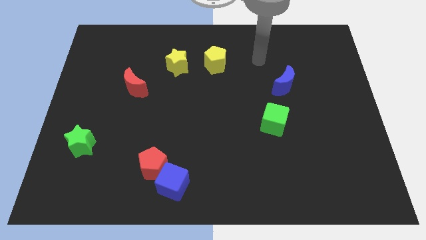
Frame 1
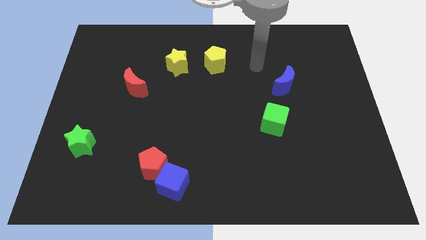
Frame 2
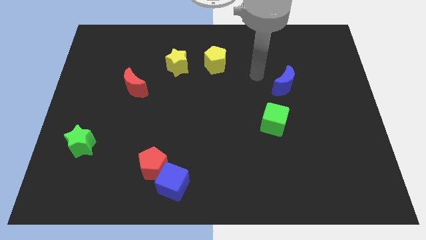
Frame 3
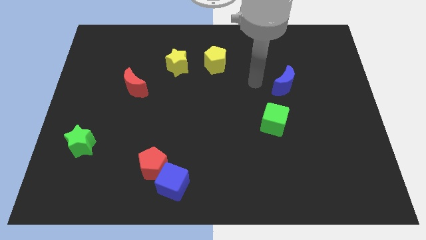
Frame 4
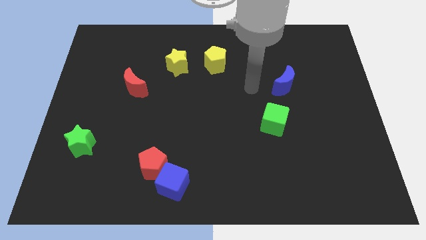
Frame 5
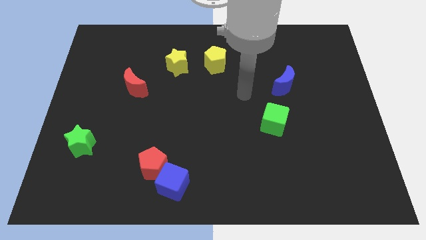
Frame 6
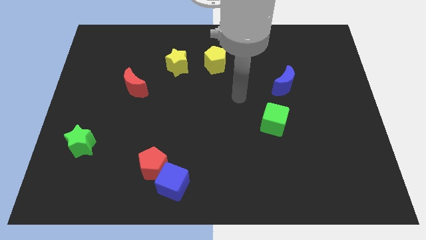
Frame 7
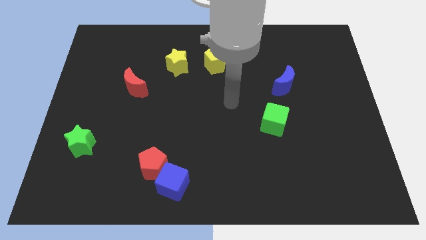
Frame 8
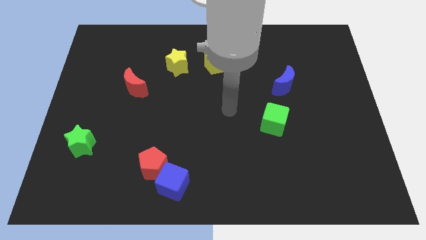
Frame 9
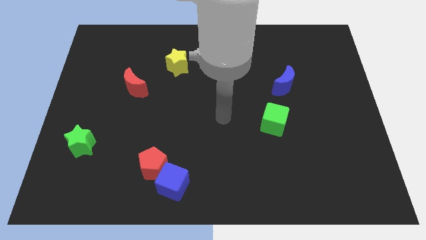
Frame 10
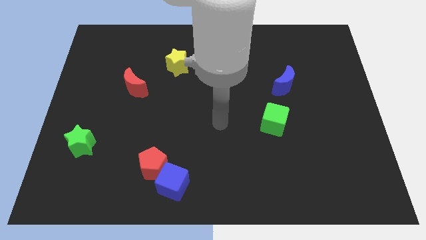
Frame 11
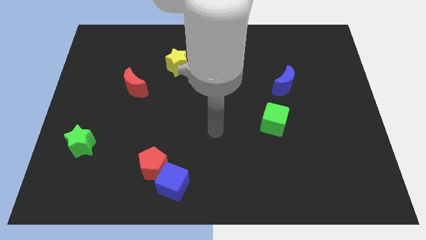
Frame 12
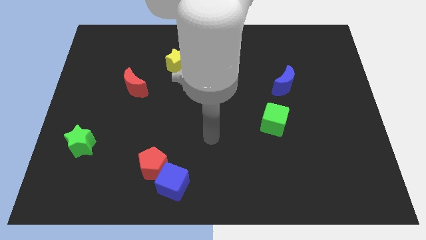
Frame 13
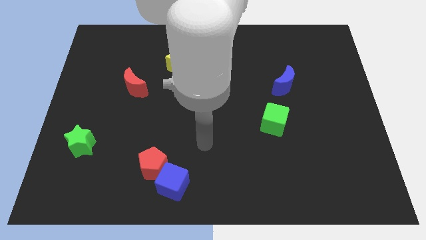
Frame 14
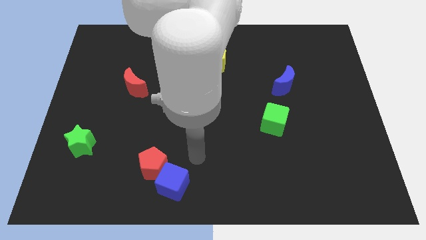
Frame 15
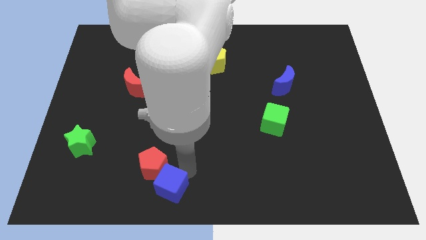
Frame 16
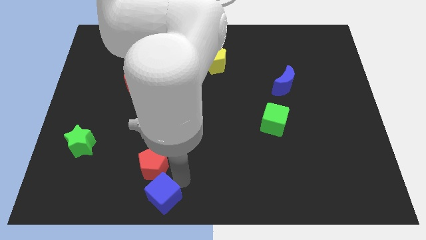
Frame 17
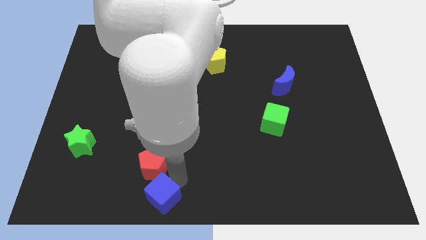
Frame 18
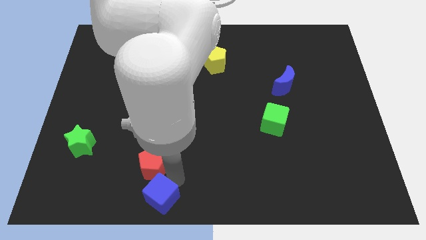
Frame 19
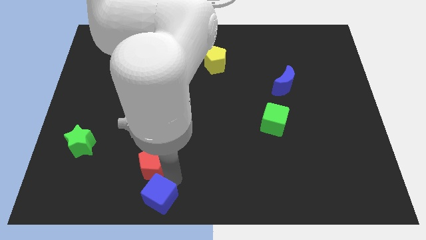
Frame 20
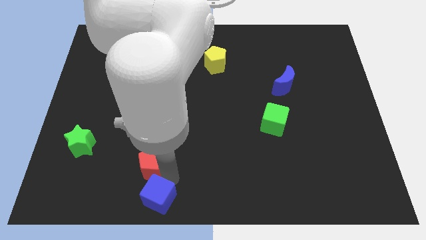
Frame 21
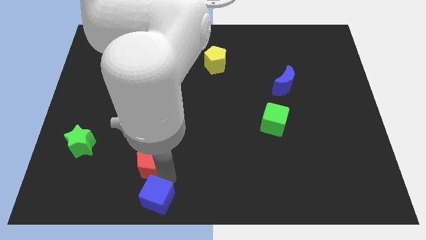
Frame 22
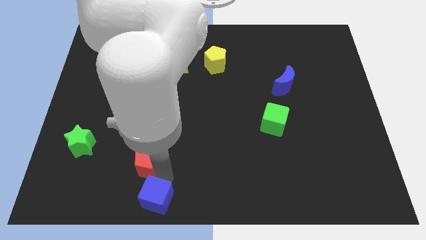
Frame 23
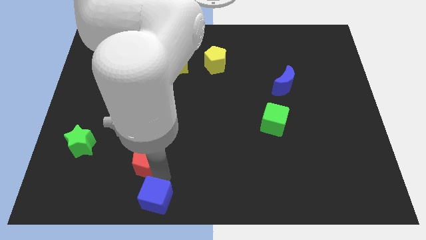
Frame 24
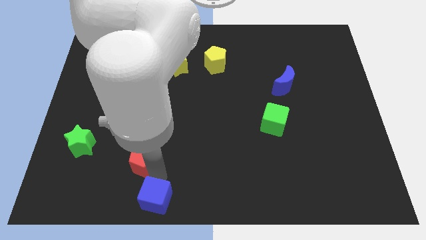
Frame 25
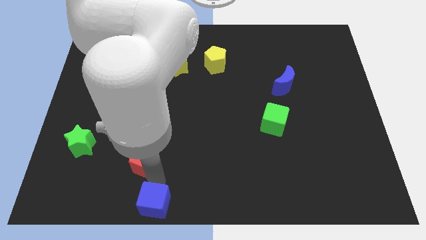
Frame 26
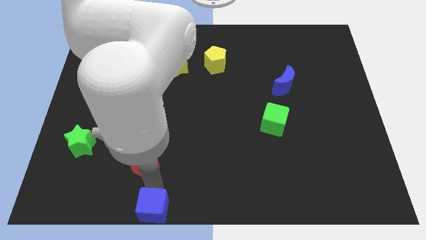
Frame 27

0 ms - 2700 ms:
separate the red pentagon from the blue cube

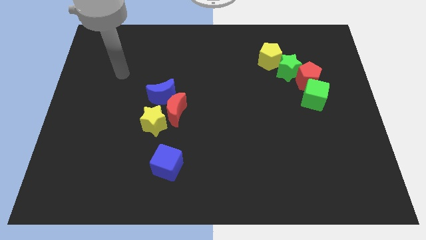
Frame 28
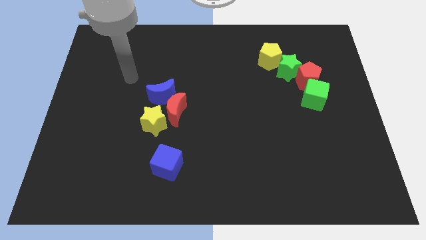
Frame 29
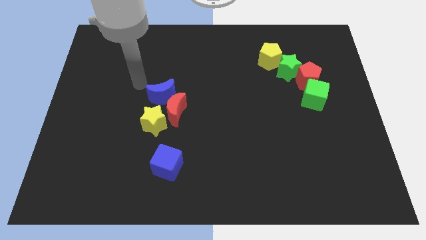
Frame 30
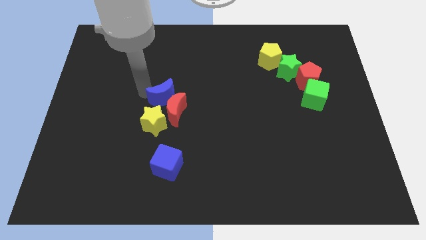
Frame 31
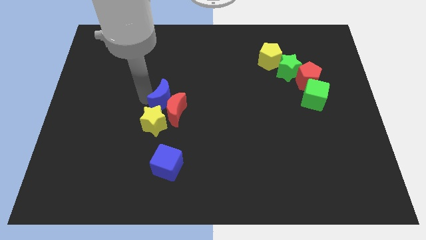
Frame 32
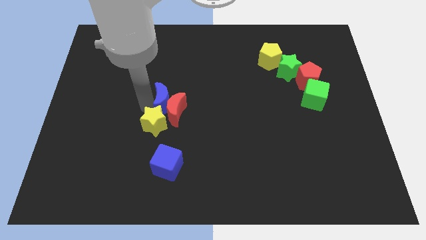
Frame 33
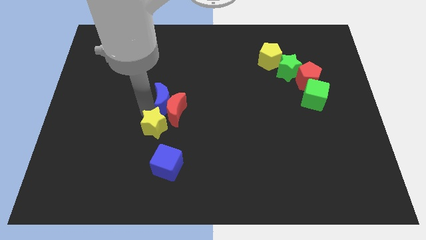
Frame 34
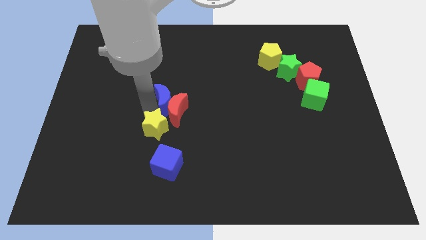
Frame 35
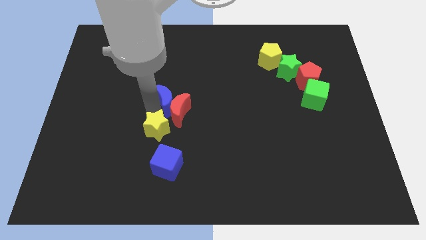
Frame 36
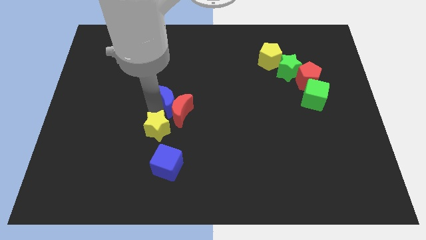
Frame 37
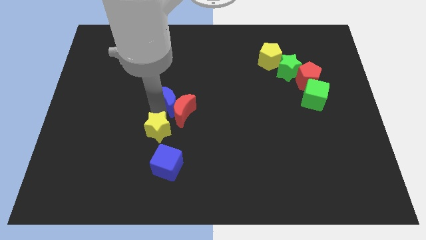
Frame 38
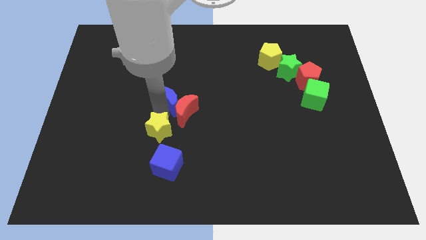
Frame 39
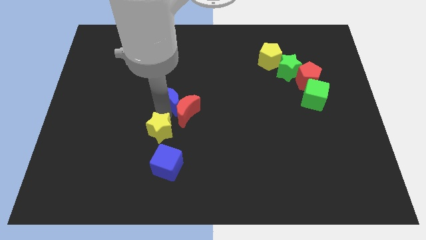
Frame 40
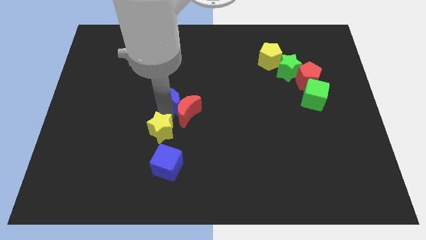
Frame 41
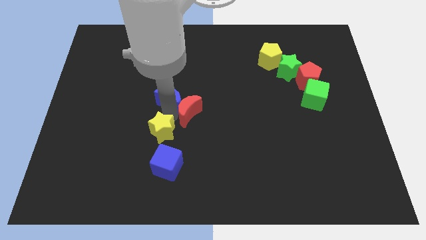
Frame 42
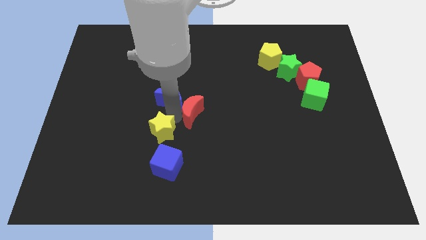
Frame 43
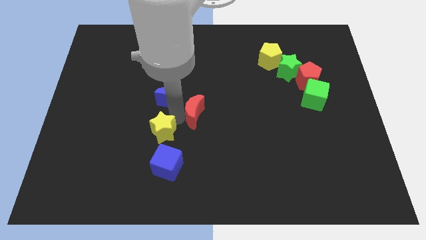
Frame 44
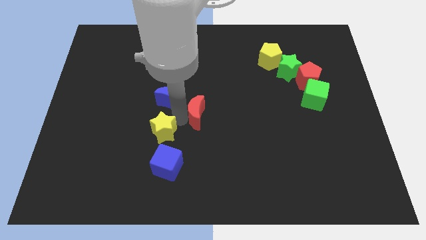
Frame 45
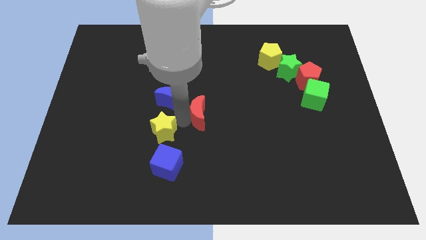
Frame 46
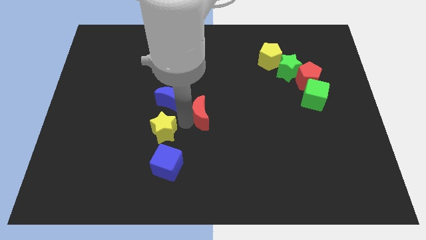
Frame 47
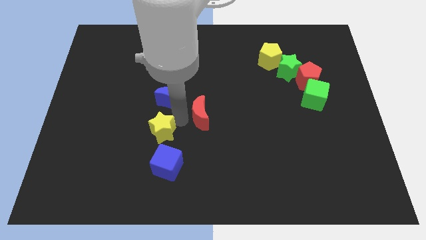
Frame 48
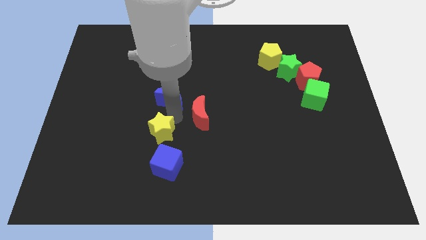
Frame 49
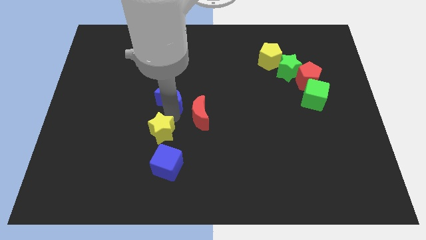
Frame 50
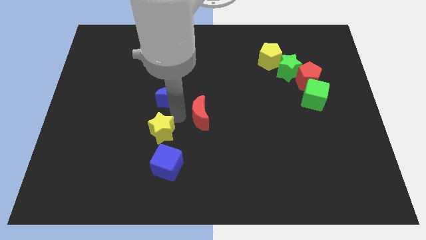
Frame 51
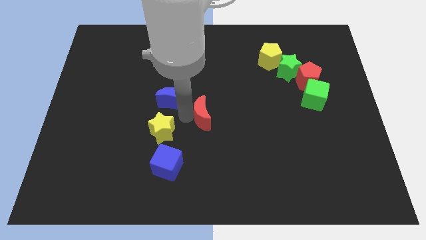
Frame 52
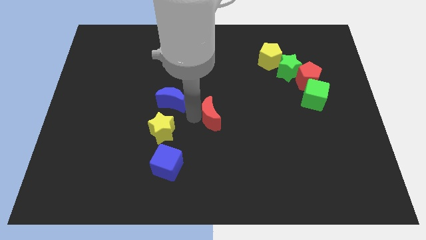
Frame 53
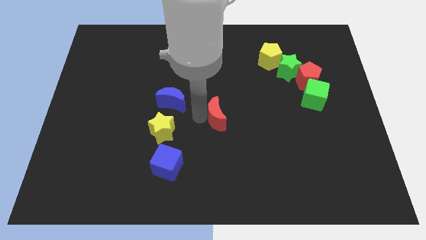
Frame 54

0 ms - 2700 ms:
separate the red moon from the yellow star and blue moon

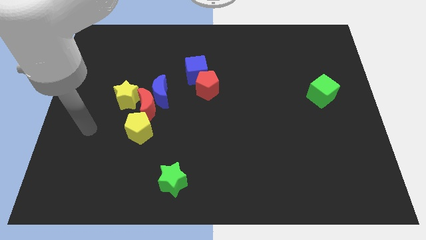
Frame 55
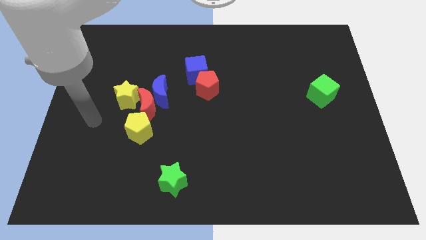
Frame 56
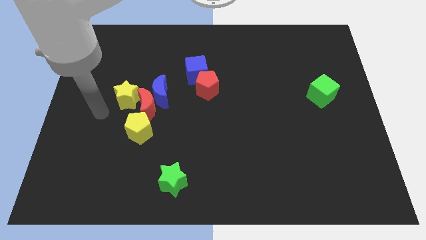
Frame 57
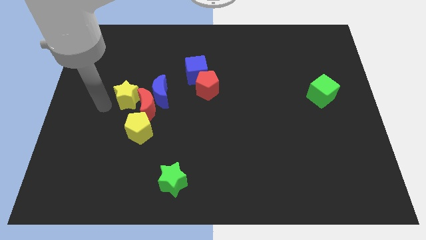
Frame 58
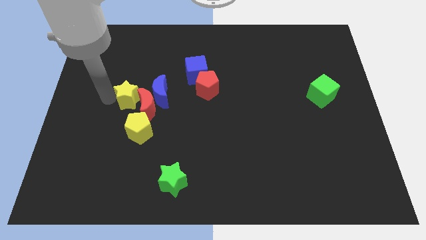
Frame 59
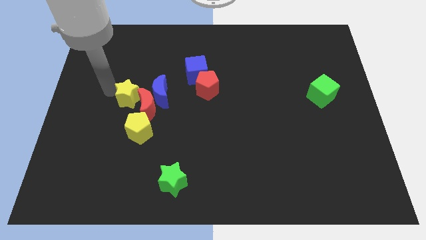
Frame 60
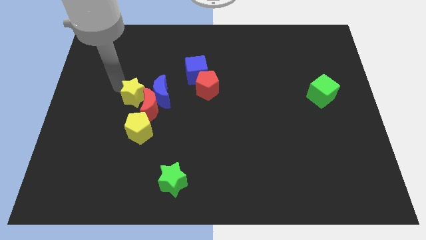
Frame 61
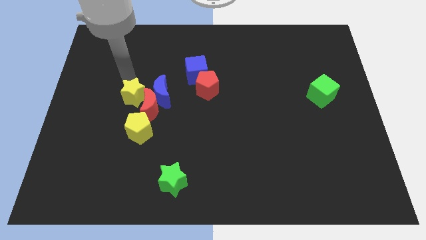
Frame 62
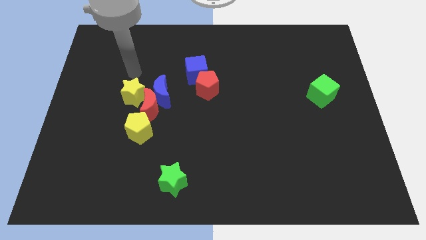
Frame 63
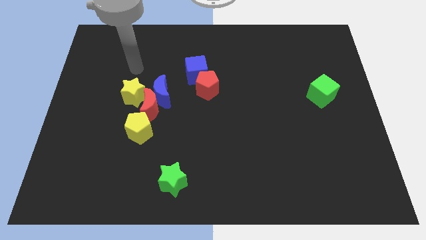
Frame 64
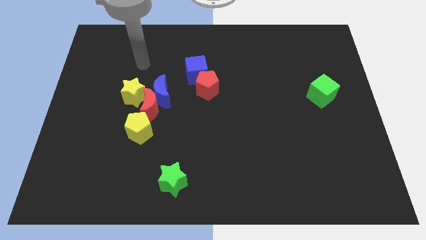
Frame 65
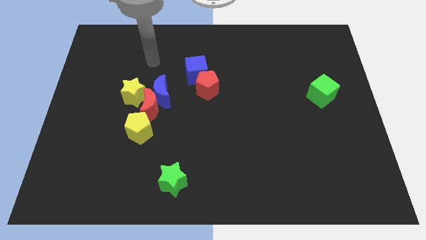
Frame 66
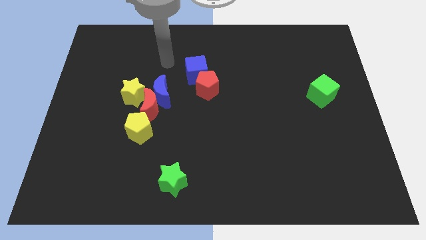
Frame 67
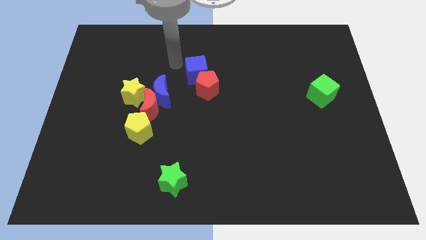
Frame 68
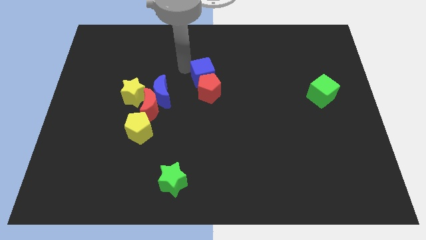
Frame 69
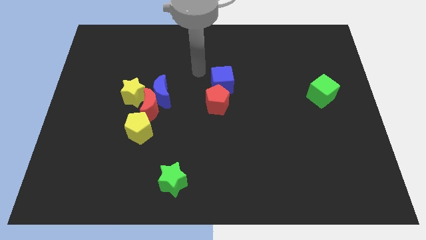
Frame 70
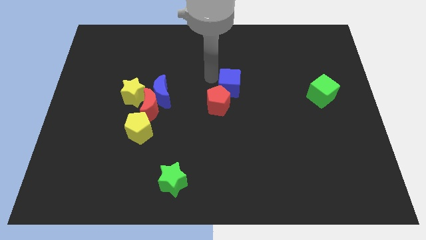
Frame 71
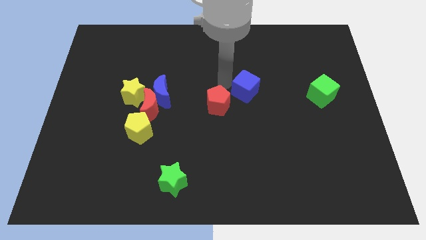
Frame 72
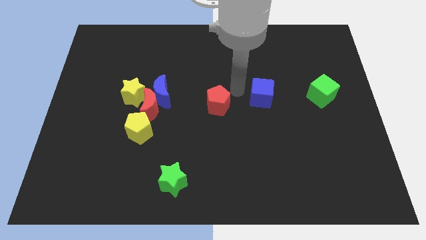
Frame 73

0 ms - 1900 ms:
move the red pentagon away from the blue cube

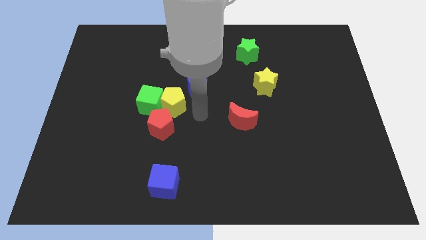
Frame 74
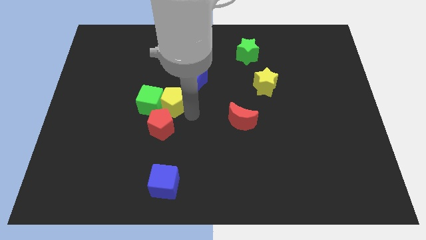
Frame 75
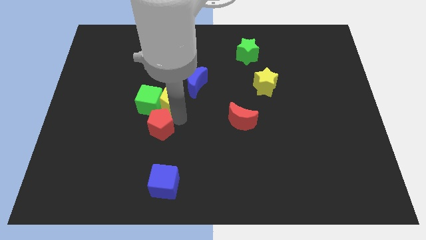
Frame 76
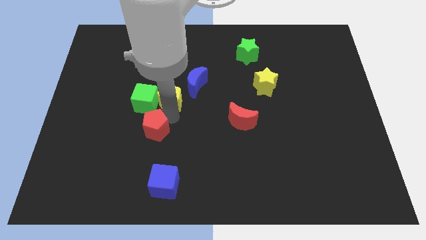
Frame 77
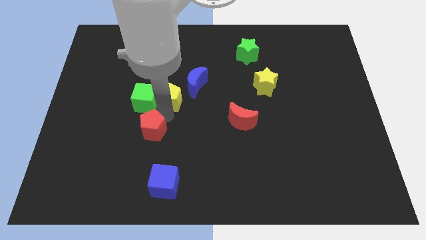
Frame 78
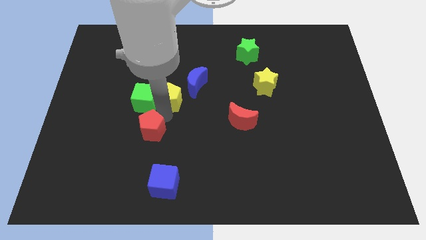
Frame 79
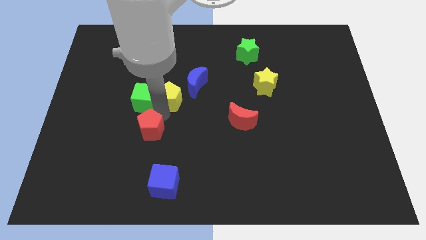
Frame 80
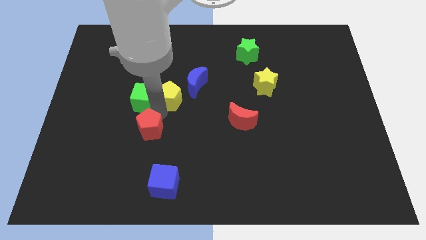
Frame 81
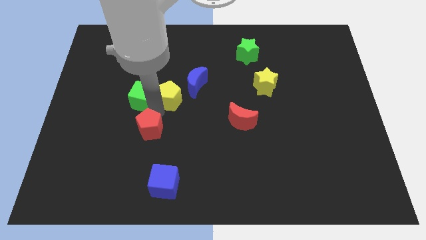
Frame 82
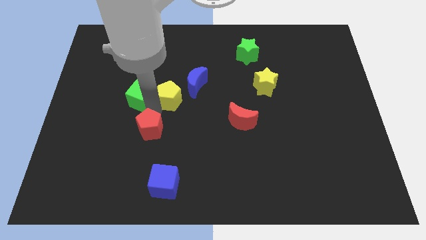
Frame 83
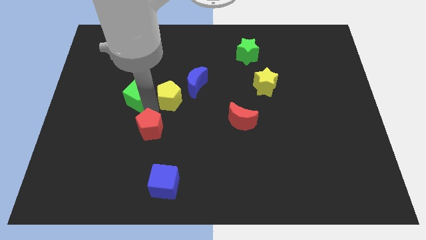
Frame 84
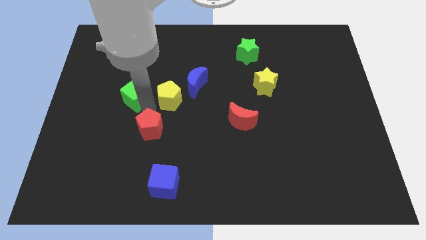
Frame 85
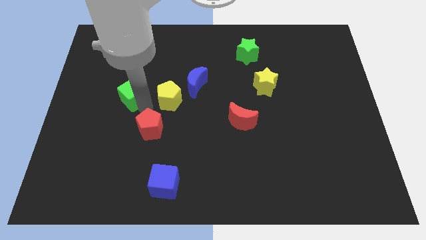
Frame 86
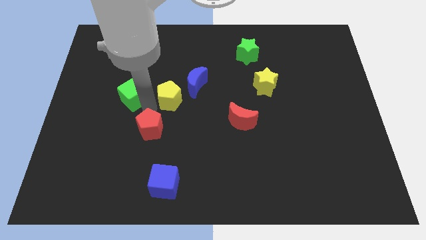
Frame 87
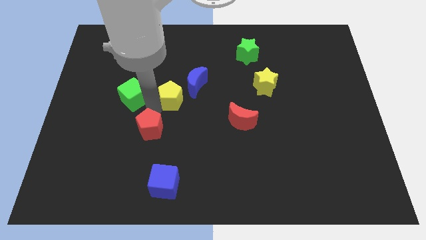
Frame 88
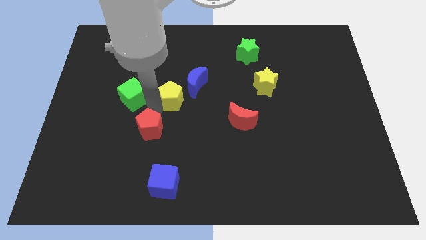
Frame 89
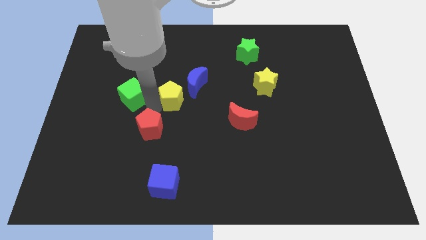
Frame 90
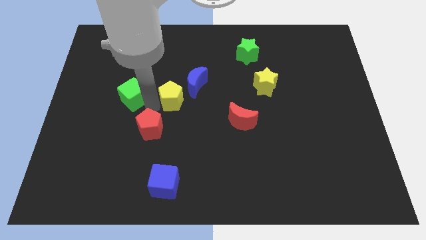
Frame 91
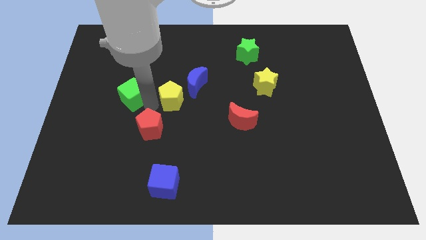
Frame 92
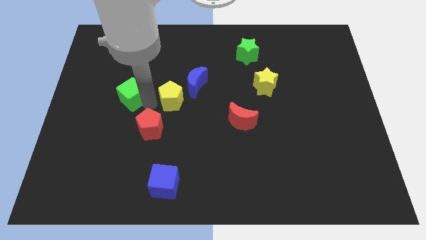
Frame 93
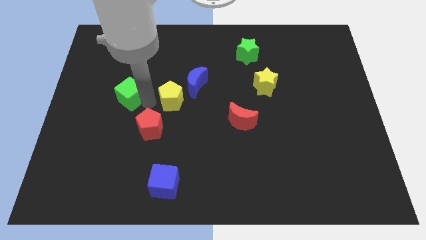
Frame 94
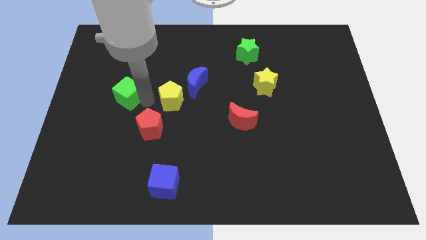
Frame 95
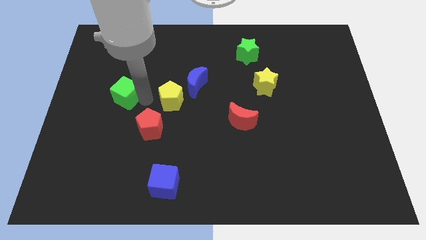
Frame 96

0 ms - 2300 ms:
pull the green cube apart from the yellow pentagon and red pentagon

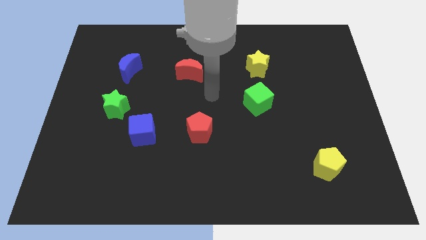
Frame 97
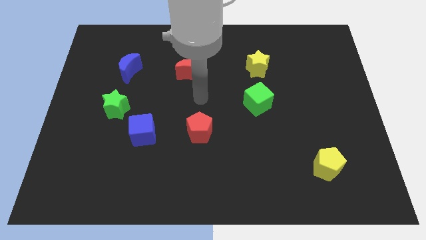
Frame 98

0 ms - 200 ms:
pull the blue cube apart from the green star
